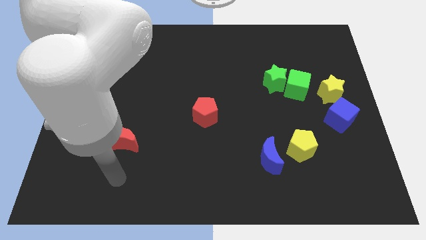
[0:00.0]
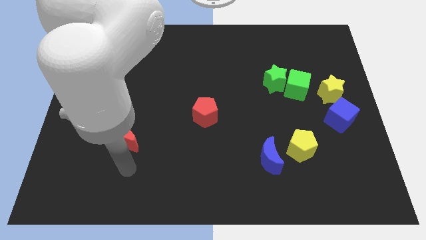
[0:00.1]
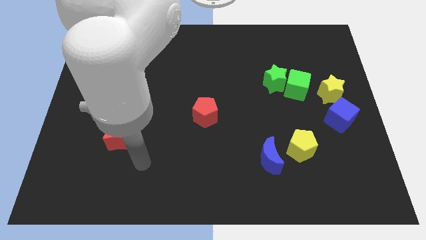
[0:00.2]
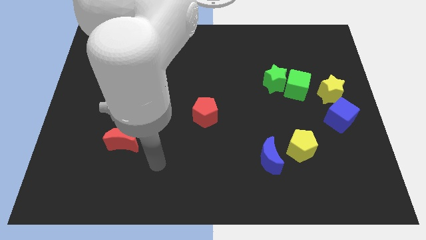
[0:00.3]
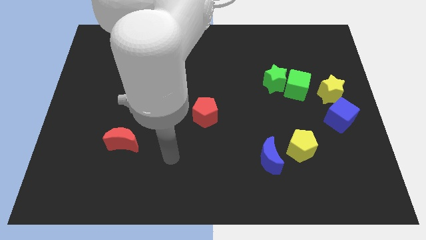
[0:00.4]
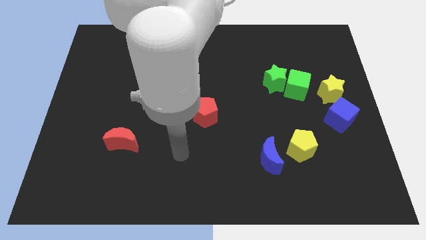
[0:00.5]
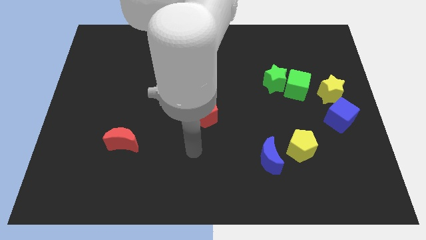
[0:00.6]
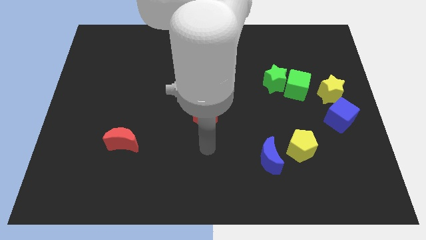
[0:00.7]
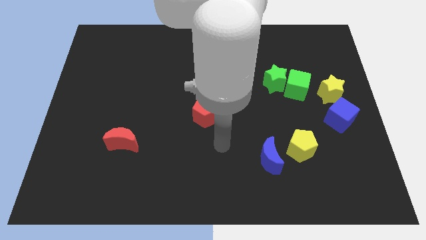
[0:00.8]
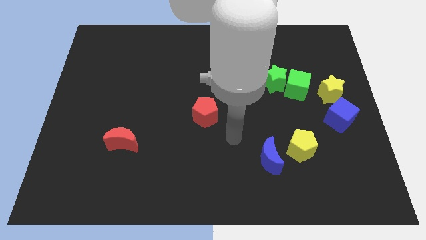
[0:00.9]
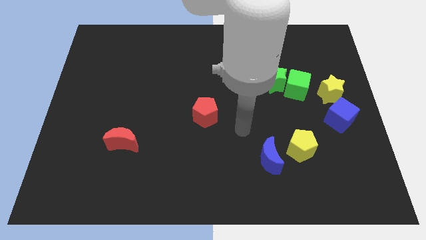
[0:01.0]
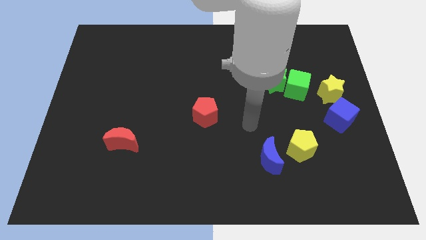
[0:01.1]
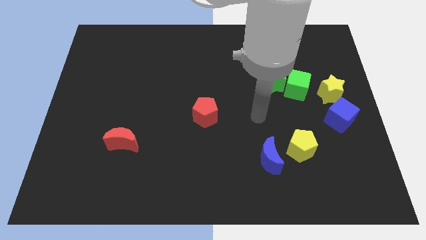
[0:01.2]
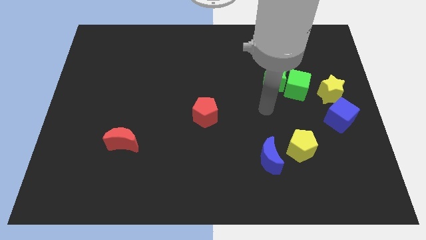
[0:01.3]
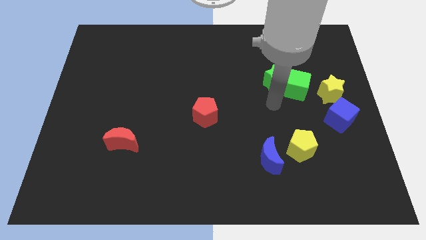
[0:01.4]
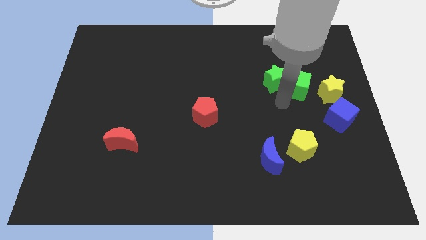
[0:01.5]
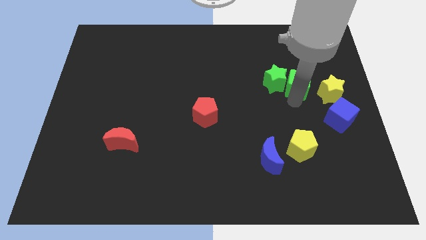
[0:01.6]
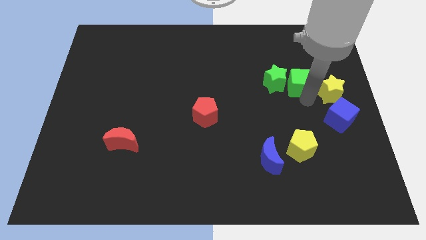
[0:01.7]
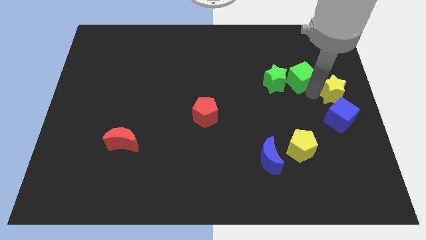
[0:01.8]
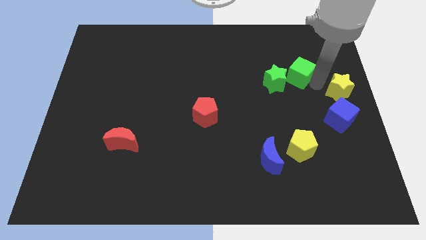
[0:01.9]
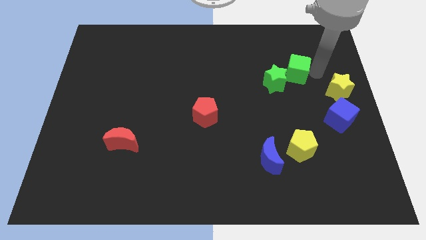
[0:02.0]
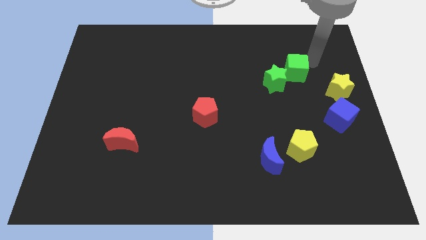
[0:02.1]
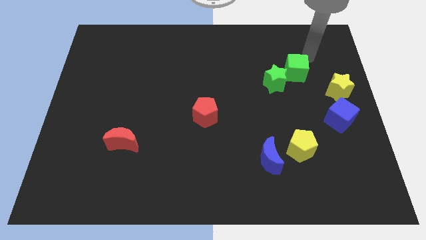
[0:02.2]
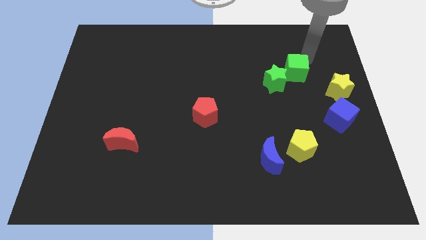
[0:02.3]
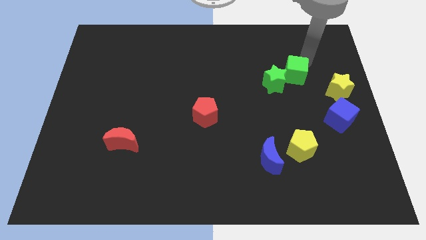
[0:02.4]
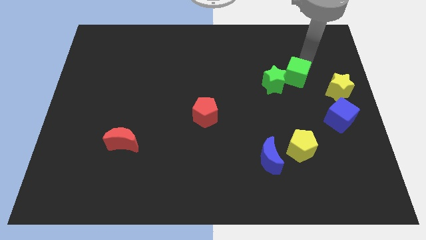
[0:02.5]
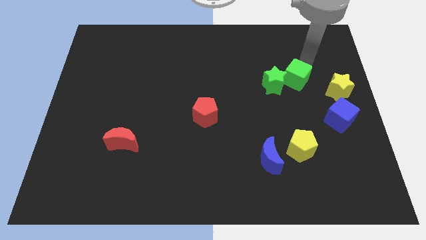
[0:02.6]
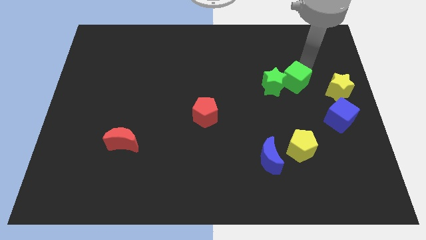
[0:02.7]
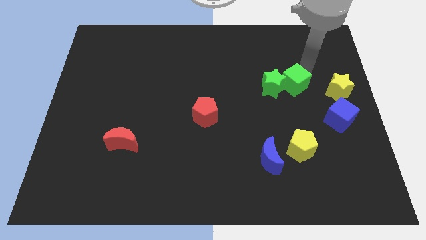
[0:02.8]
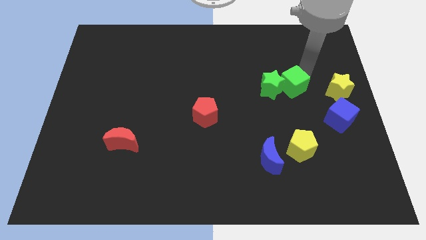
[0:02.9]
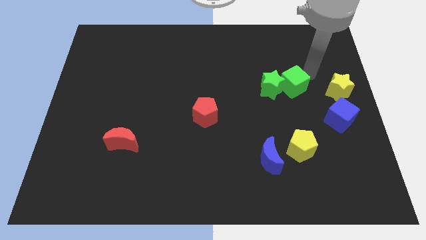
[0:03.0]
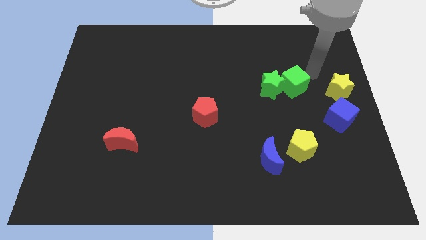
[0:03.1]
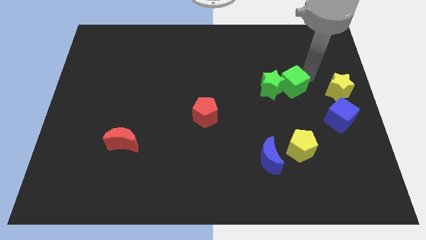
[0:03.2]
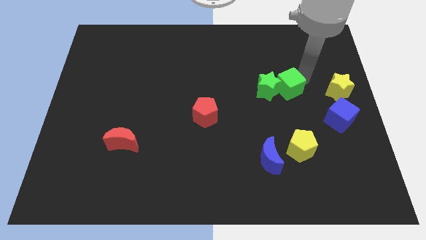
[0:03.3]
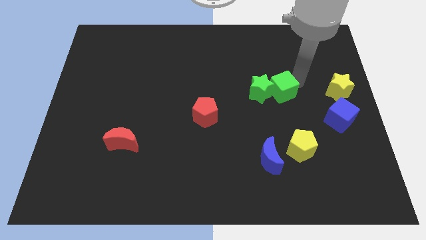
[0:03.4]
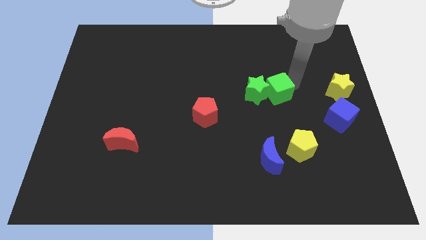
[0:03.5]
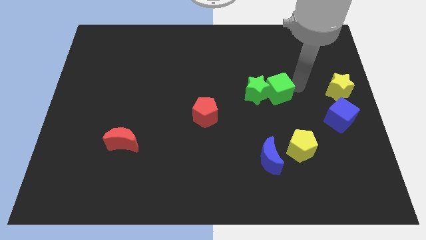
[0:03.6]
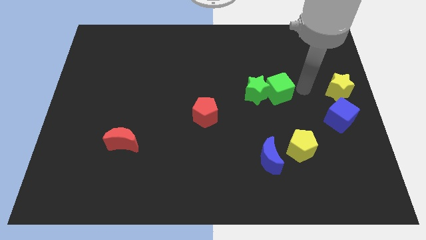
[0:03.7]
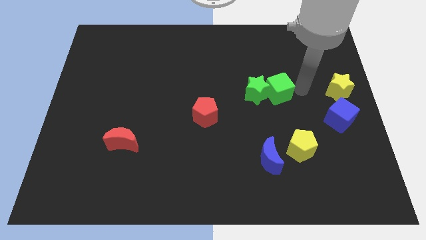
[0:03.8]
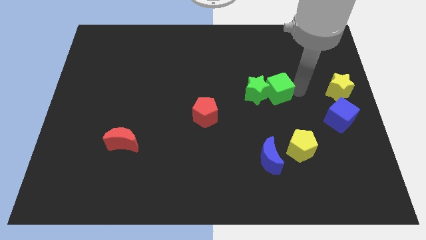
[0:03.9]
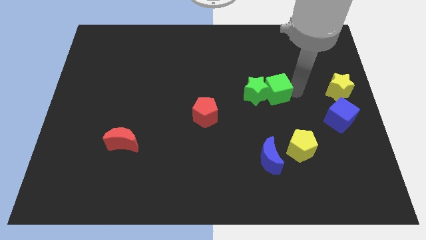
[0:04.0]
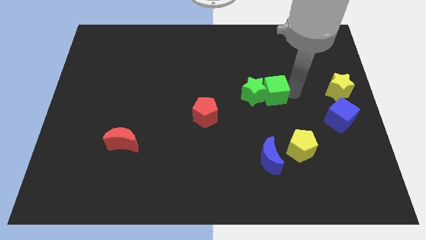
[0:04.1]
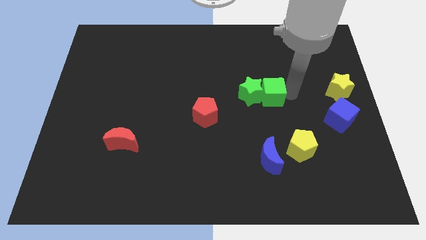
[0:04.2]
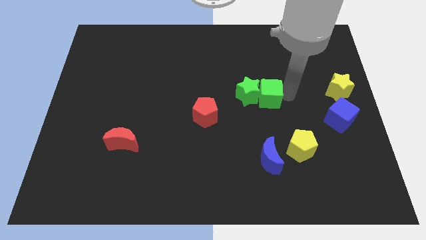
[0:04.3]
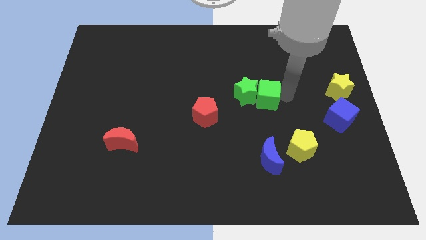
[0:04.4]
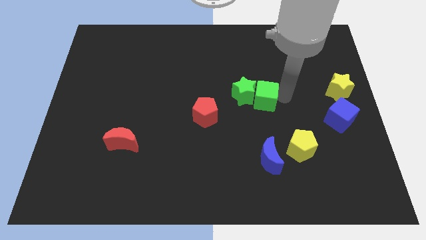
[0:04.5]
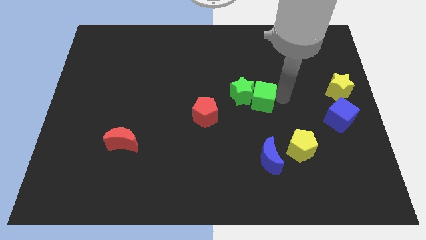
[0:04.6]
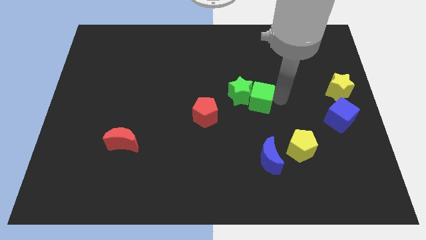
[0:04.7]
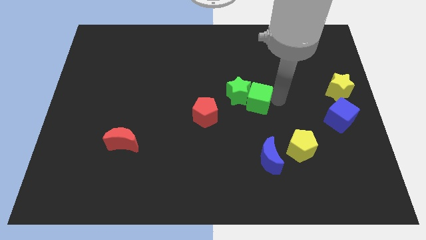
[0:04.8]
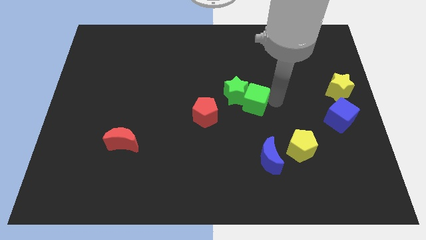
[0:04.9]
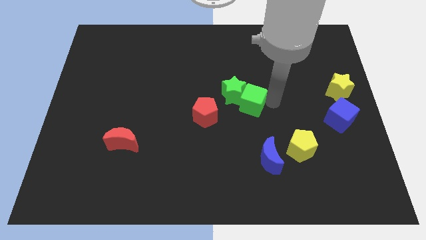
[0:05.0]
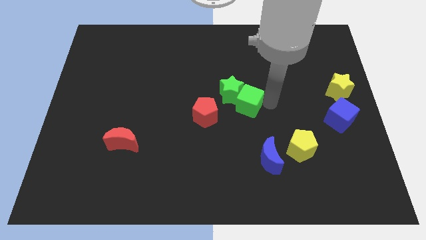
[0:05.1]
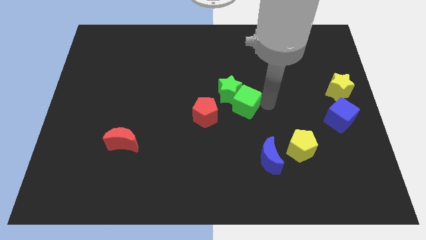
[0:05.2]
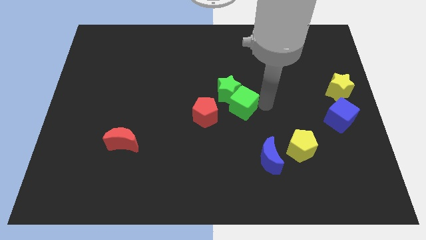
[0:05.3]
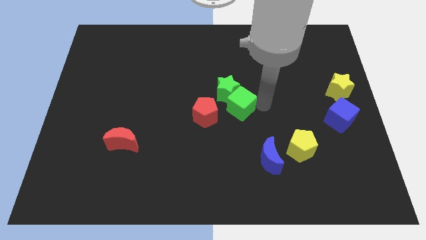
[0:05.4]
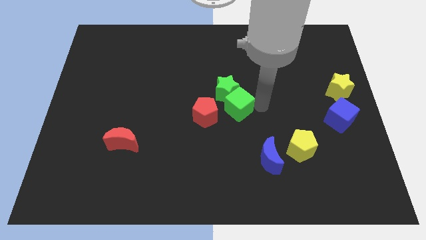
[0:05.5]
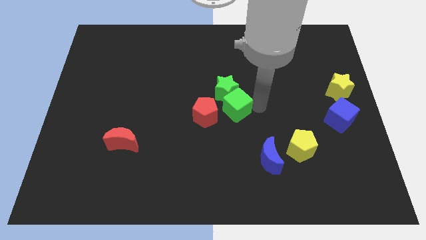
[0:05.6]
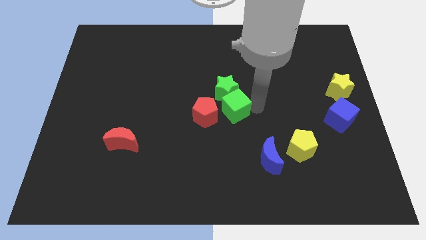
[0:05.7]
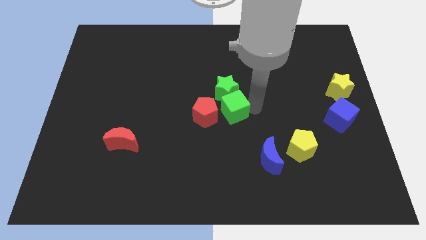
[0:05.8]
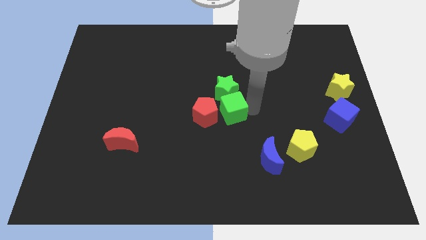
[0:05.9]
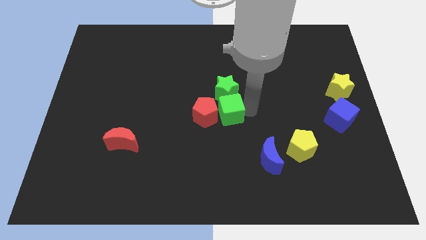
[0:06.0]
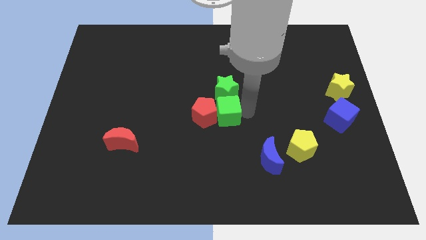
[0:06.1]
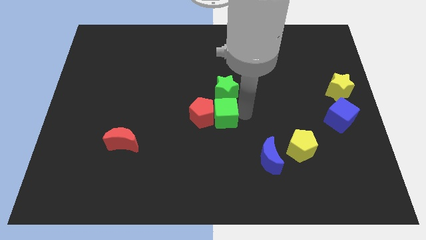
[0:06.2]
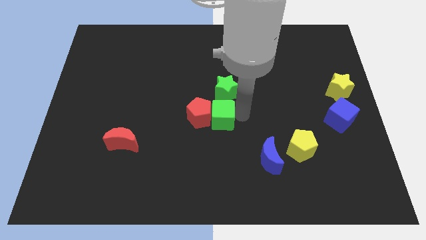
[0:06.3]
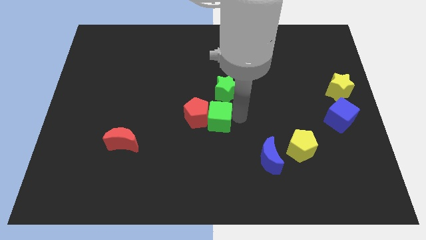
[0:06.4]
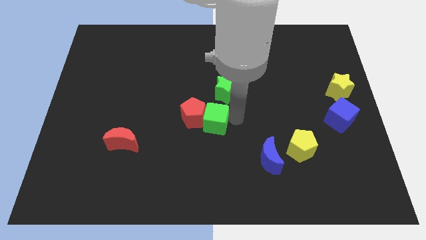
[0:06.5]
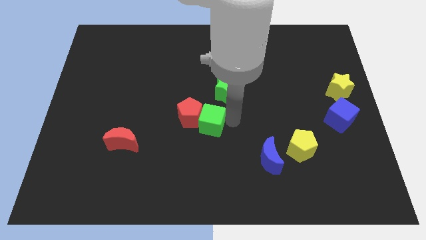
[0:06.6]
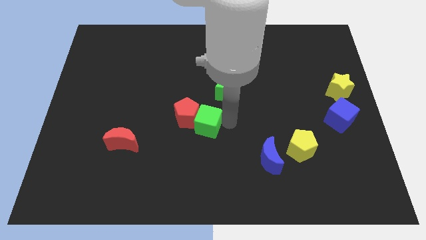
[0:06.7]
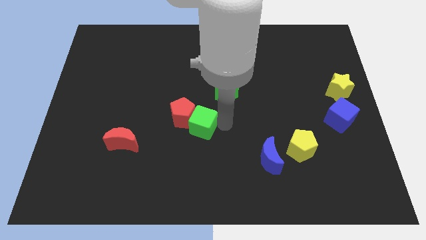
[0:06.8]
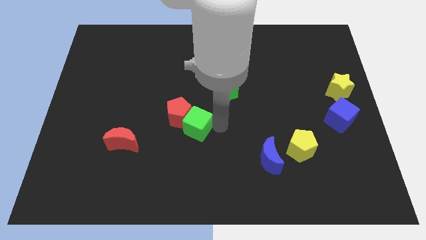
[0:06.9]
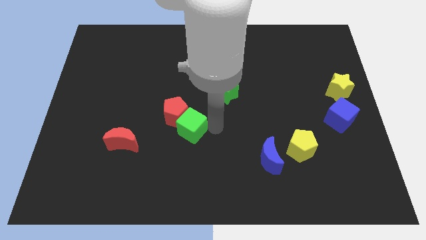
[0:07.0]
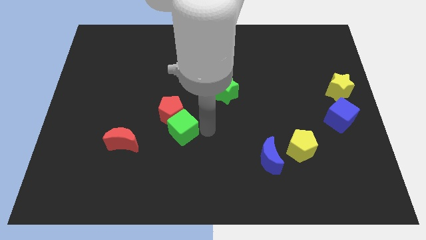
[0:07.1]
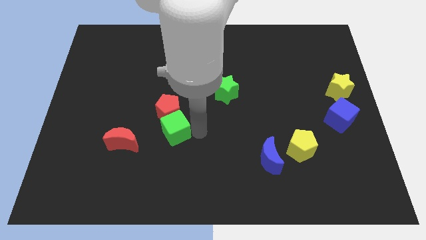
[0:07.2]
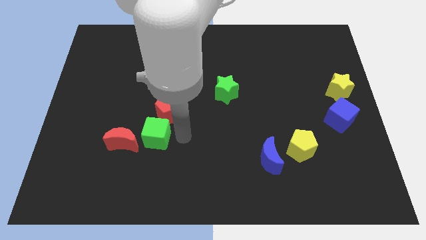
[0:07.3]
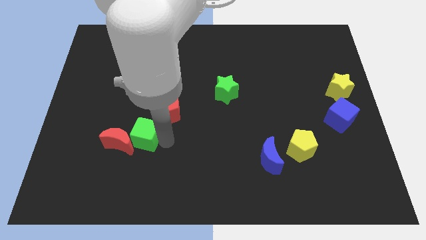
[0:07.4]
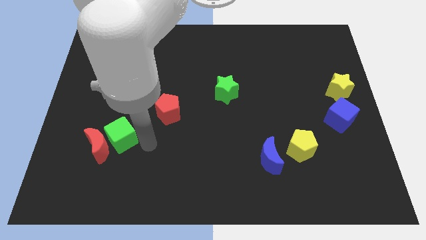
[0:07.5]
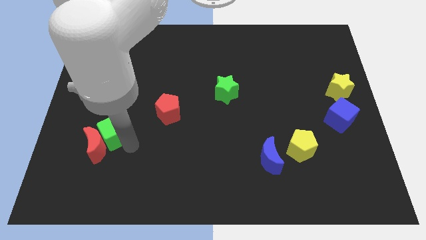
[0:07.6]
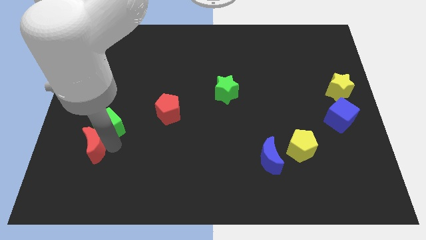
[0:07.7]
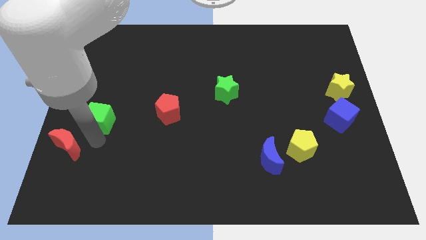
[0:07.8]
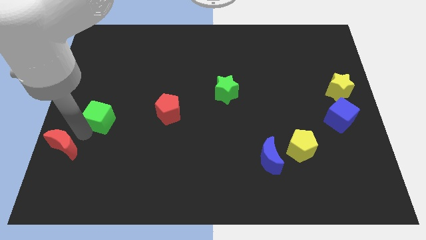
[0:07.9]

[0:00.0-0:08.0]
slide the green cube to the left side
